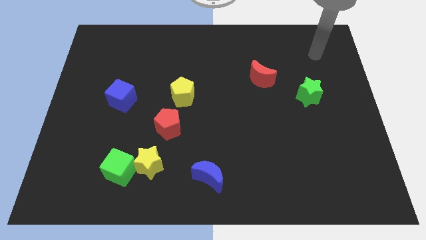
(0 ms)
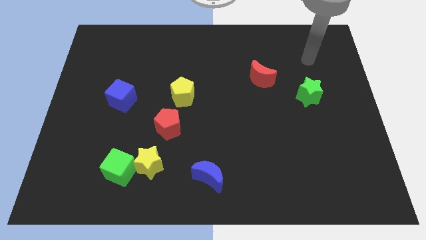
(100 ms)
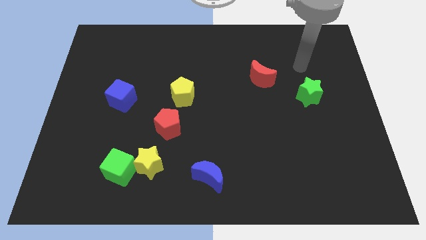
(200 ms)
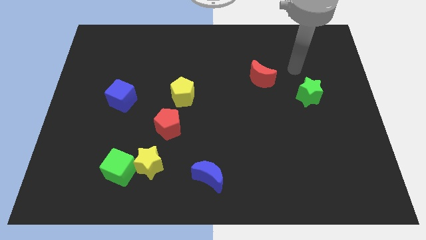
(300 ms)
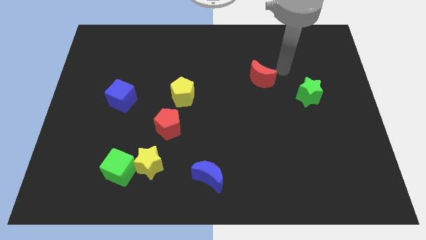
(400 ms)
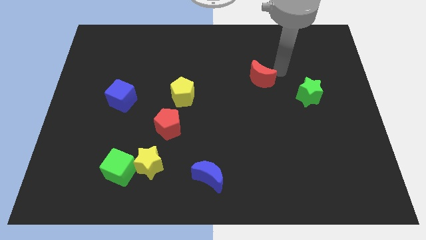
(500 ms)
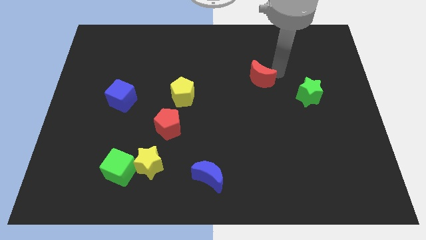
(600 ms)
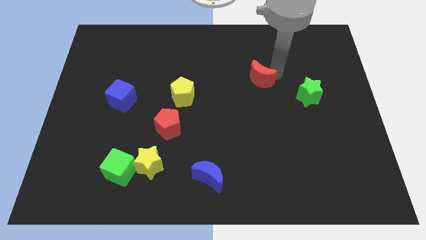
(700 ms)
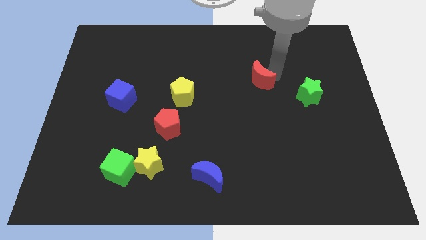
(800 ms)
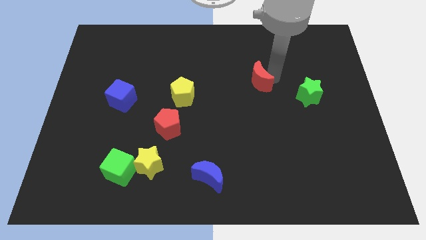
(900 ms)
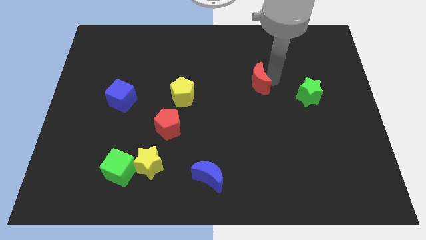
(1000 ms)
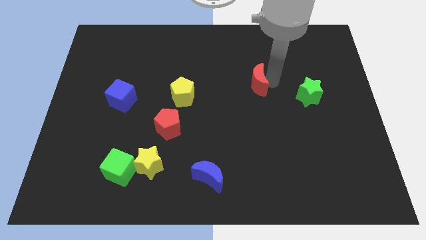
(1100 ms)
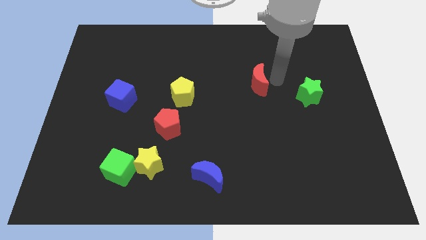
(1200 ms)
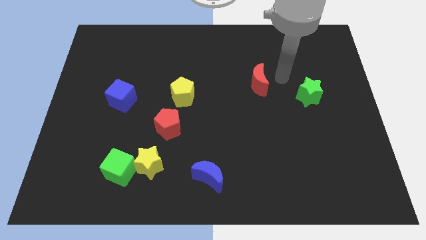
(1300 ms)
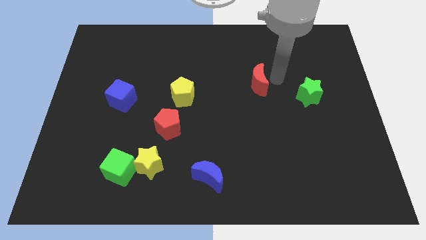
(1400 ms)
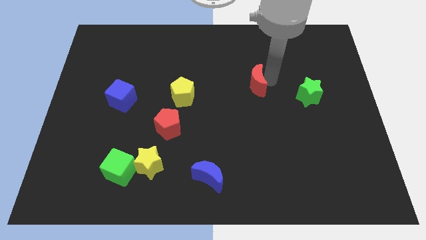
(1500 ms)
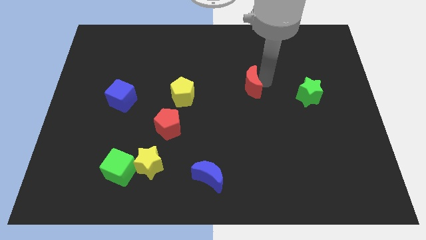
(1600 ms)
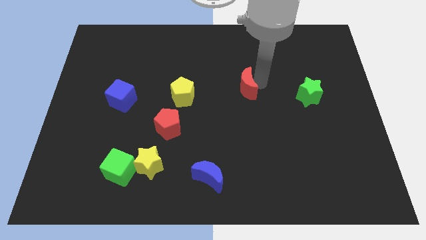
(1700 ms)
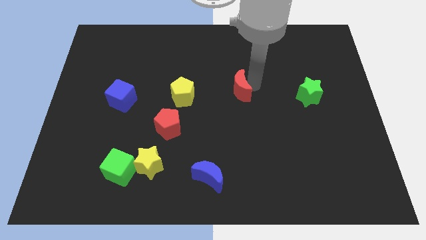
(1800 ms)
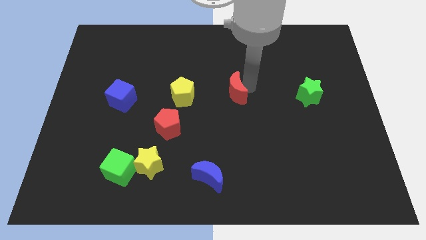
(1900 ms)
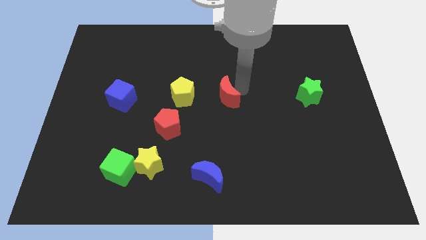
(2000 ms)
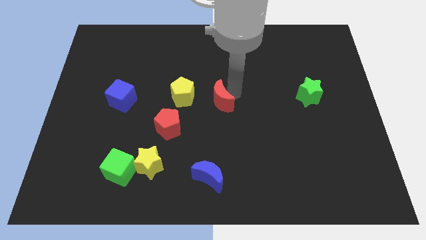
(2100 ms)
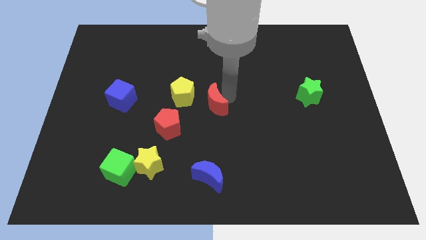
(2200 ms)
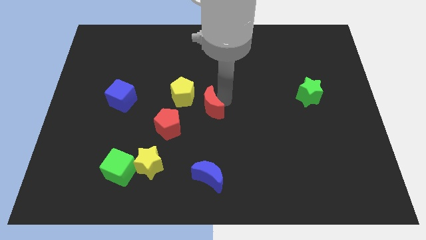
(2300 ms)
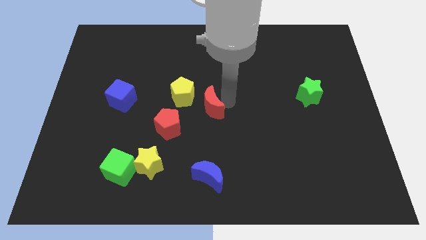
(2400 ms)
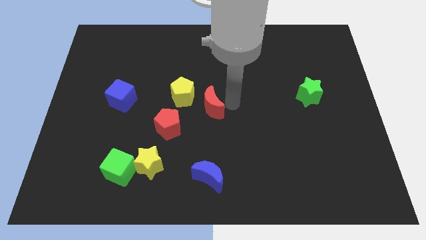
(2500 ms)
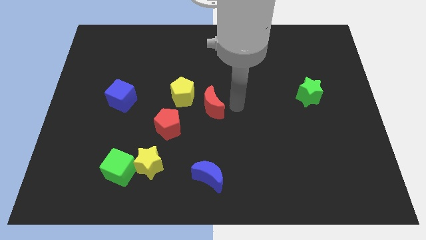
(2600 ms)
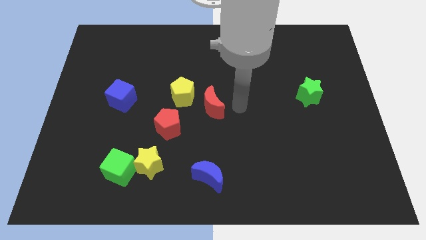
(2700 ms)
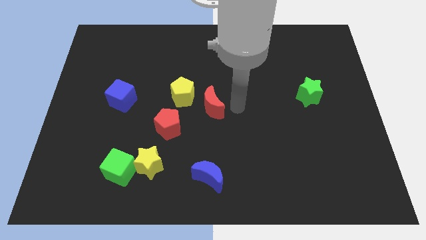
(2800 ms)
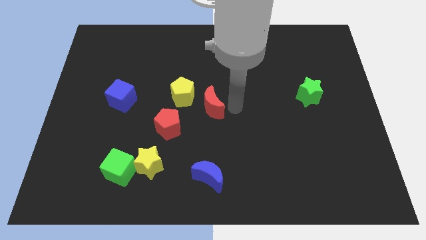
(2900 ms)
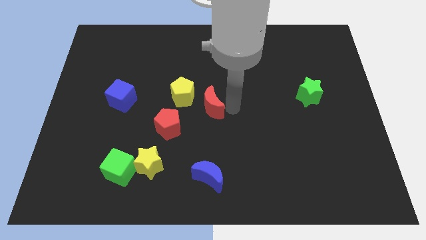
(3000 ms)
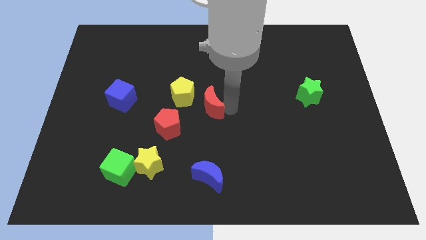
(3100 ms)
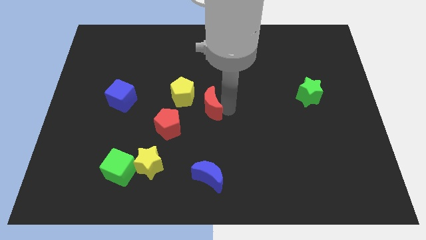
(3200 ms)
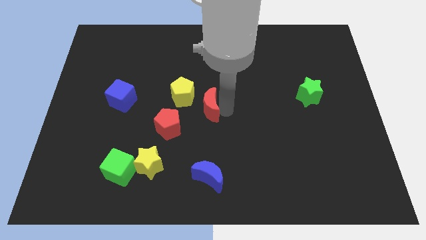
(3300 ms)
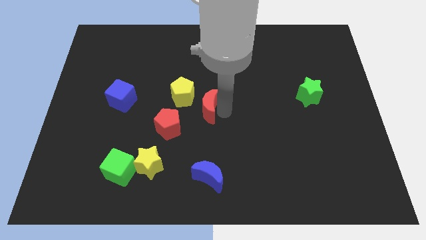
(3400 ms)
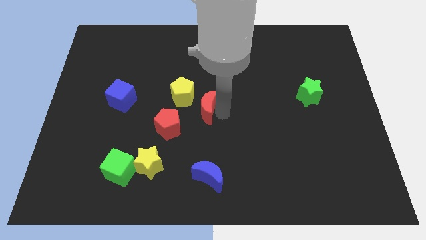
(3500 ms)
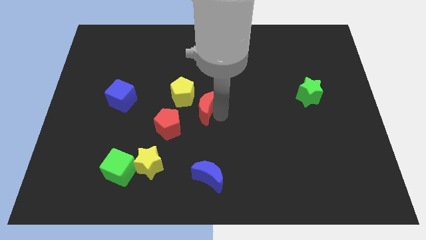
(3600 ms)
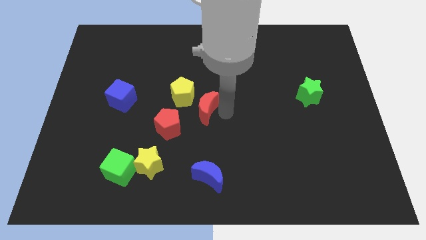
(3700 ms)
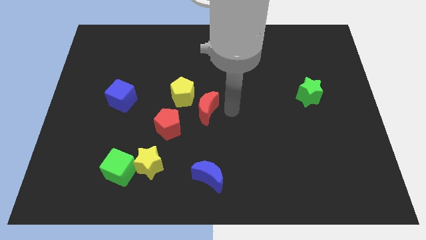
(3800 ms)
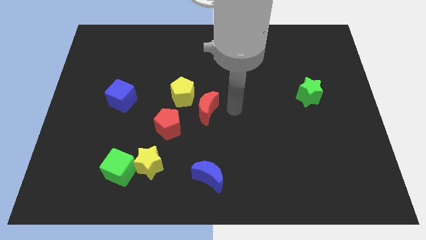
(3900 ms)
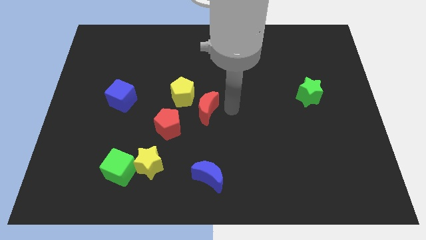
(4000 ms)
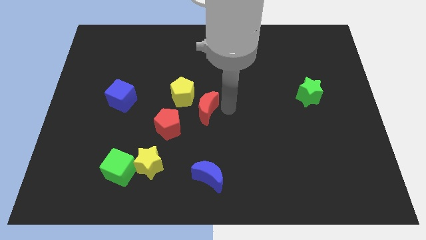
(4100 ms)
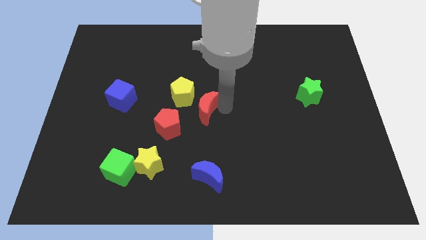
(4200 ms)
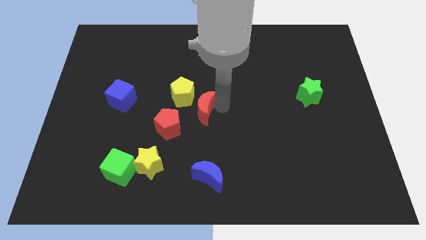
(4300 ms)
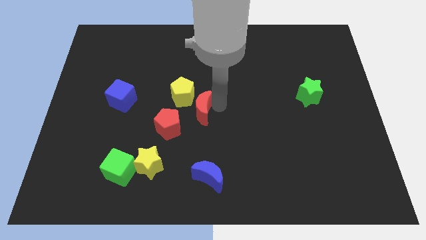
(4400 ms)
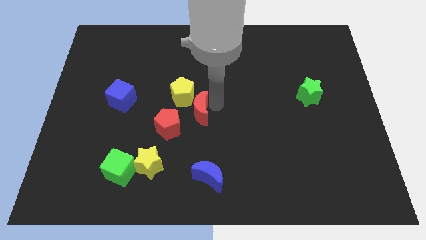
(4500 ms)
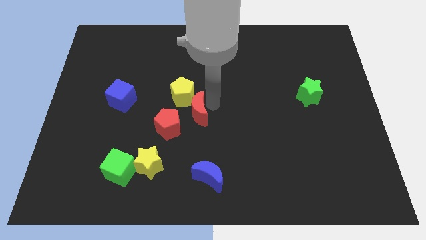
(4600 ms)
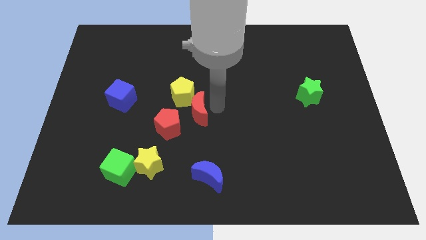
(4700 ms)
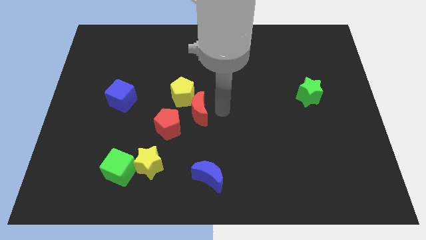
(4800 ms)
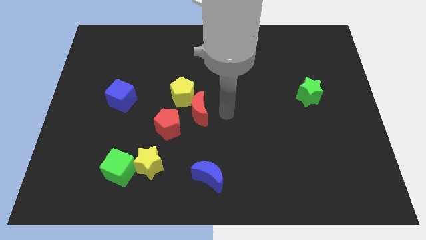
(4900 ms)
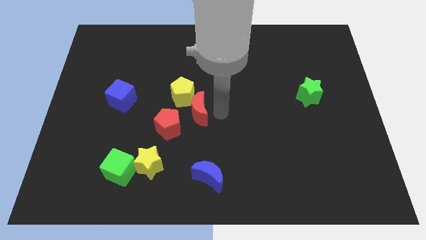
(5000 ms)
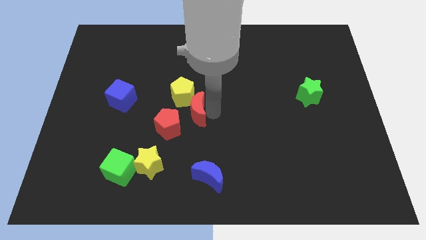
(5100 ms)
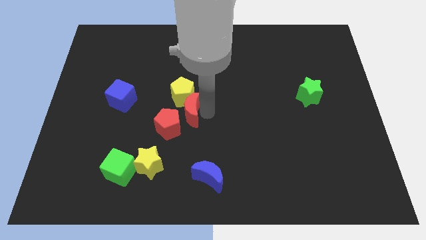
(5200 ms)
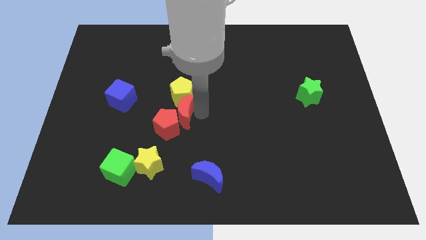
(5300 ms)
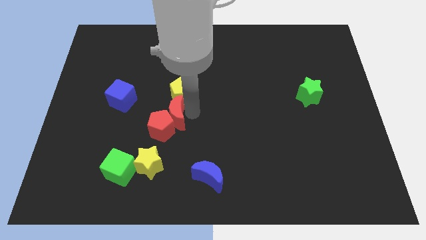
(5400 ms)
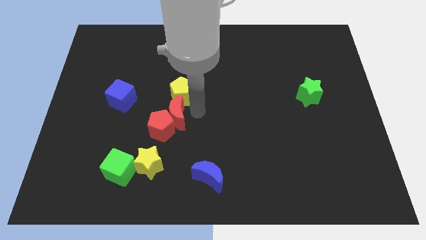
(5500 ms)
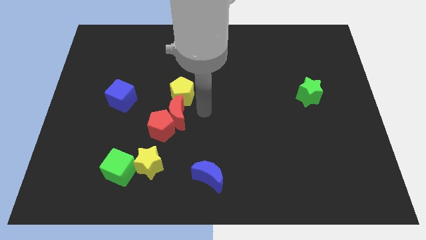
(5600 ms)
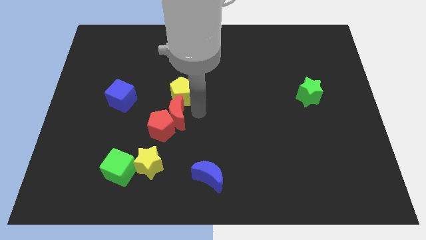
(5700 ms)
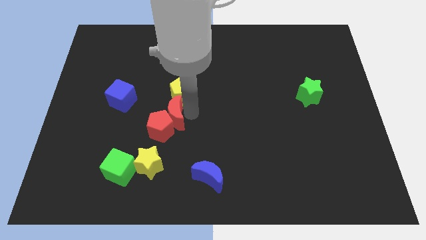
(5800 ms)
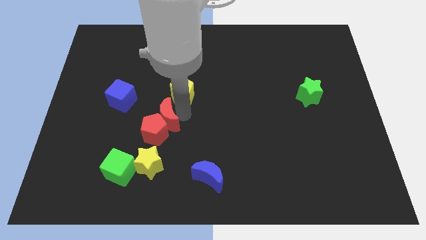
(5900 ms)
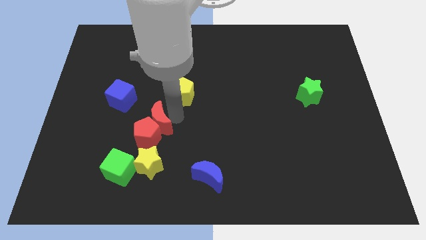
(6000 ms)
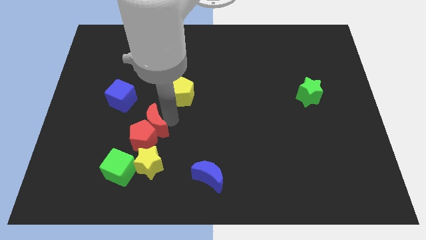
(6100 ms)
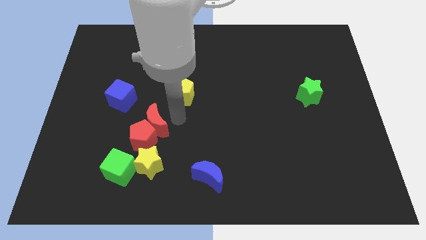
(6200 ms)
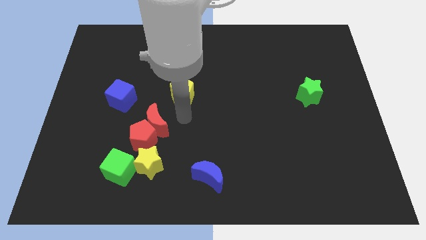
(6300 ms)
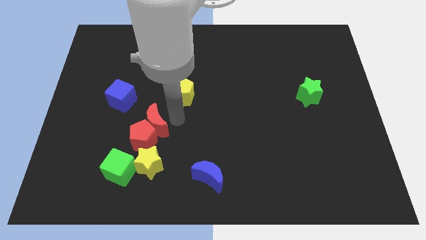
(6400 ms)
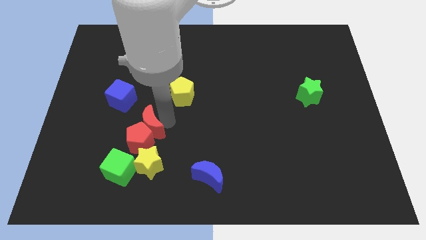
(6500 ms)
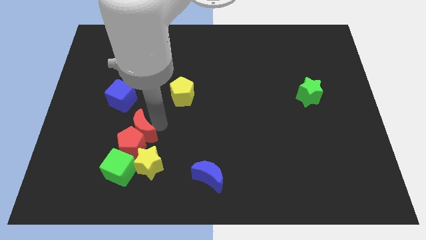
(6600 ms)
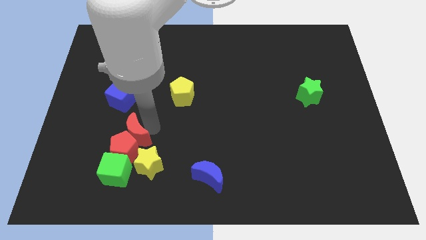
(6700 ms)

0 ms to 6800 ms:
put the red moon to the bottom side of the blue cube

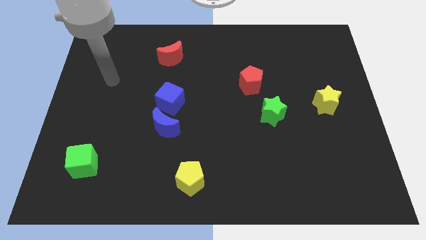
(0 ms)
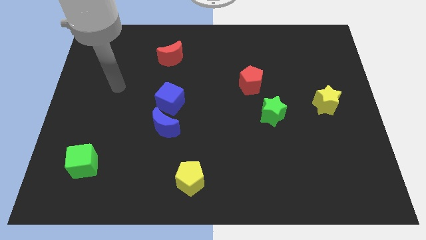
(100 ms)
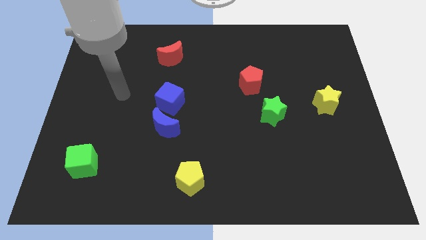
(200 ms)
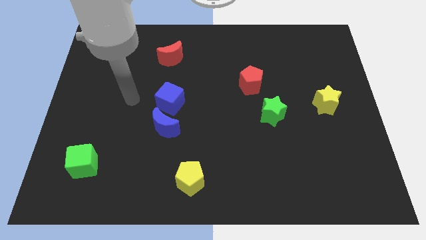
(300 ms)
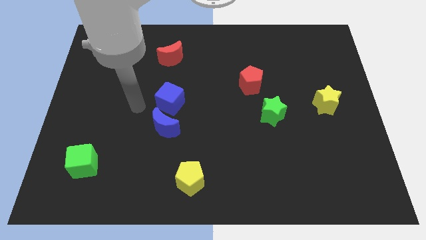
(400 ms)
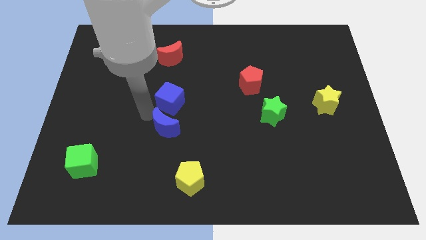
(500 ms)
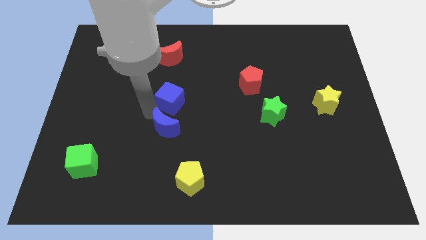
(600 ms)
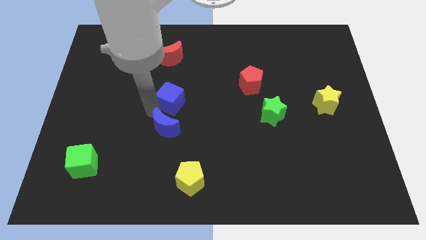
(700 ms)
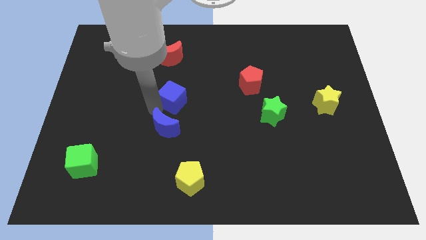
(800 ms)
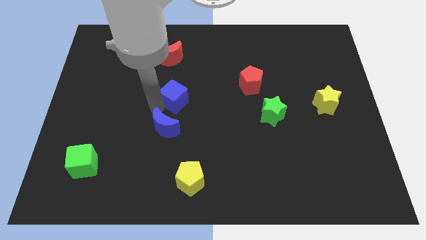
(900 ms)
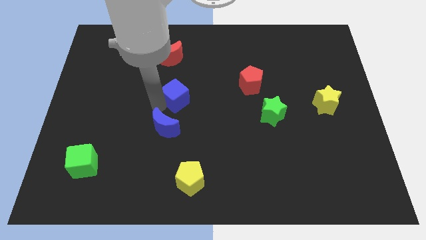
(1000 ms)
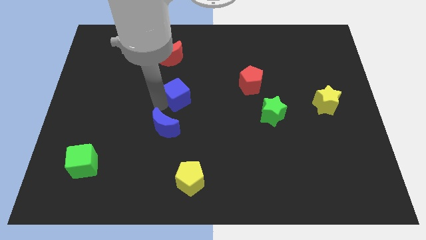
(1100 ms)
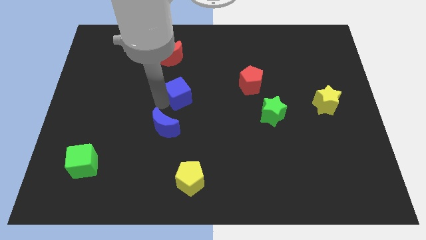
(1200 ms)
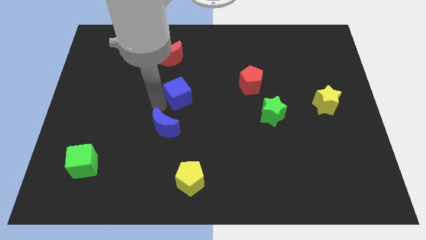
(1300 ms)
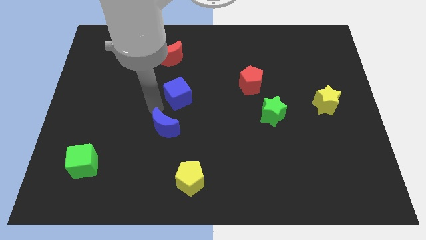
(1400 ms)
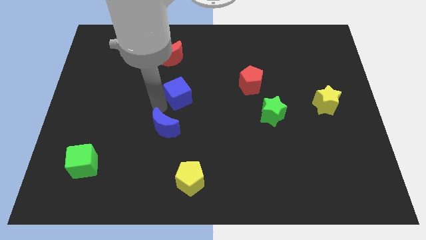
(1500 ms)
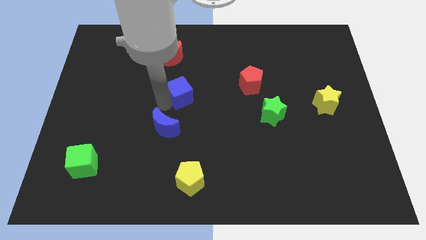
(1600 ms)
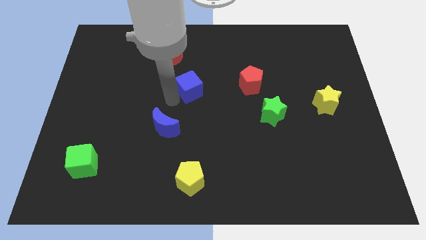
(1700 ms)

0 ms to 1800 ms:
slide the blue cube left of the red pentagon
